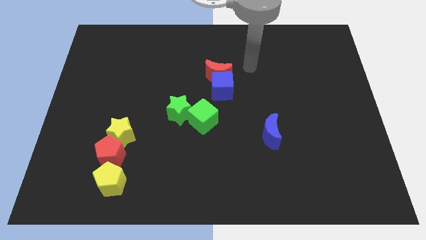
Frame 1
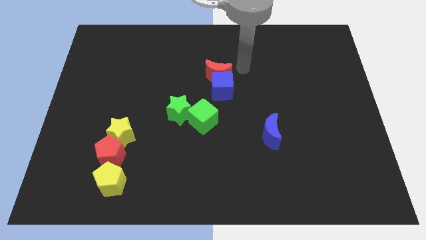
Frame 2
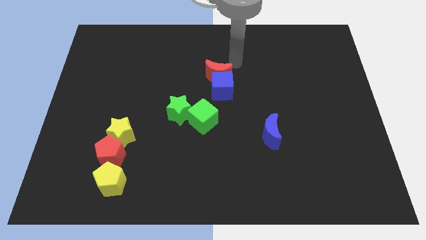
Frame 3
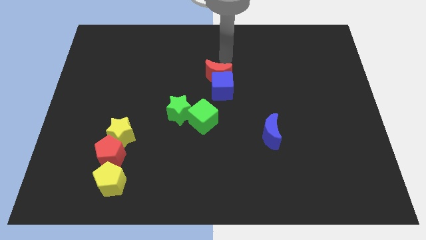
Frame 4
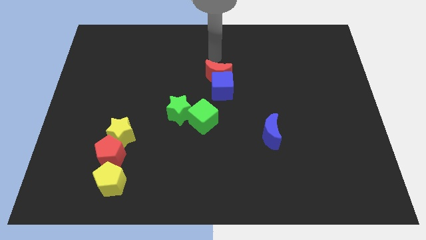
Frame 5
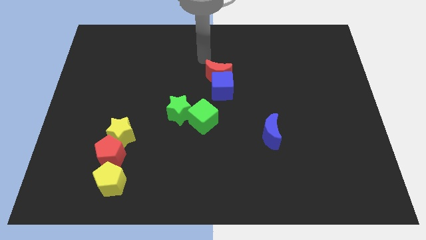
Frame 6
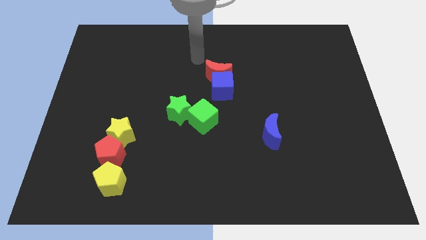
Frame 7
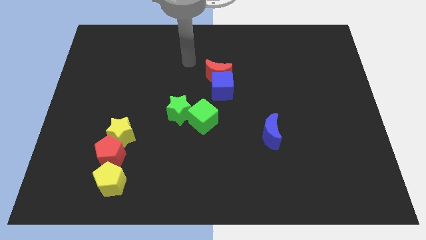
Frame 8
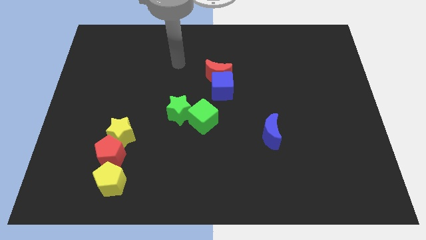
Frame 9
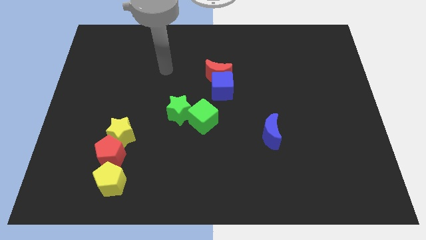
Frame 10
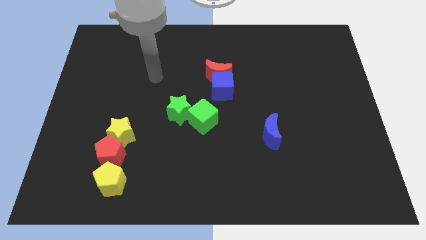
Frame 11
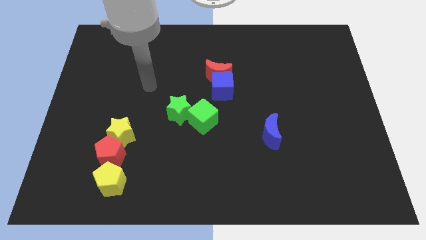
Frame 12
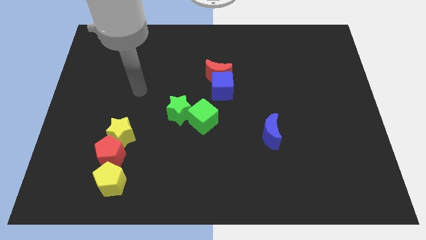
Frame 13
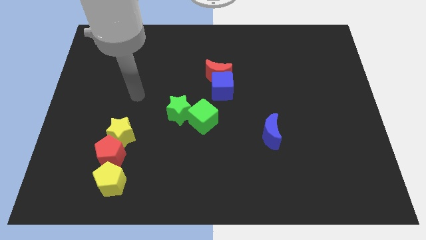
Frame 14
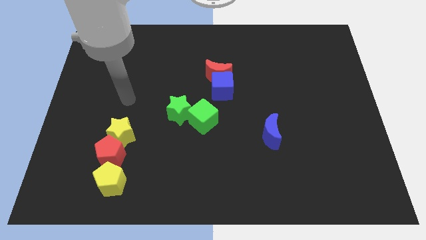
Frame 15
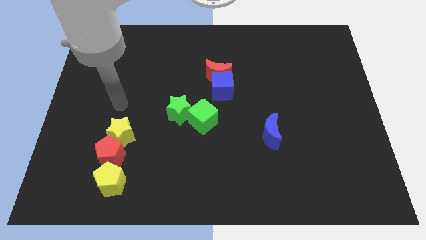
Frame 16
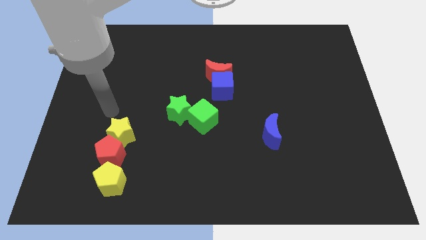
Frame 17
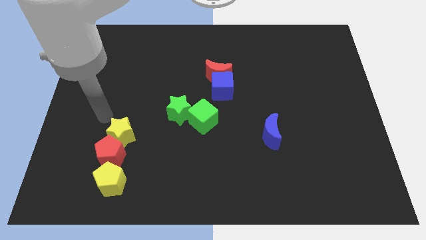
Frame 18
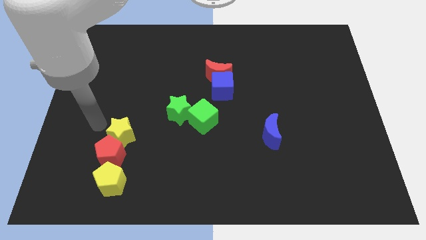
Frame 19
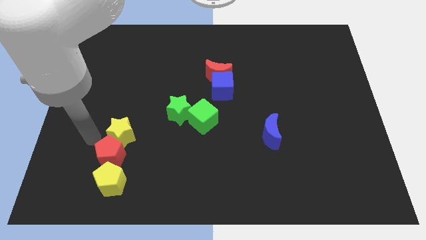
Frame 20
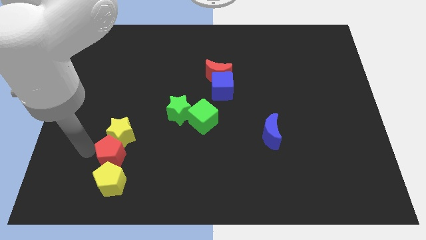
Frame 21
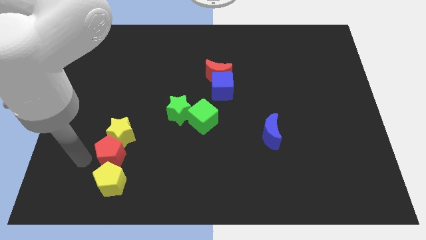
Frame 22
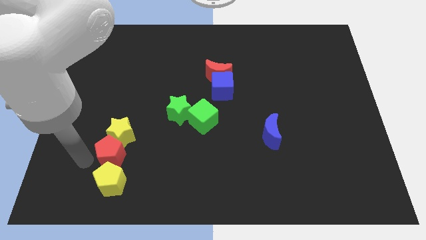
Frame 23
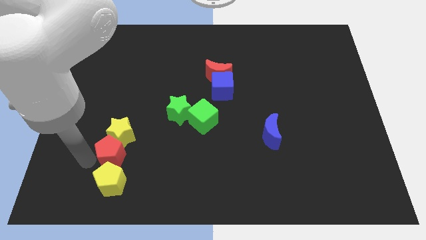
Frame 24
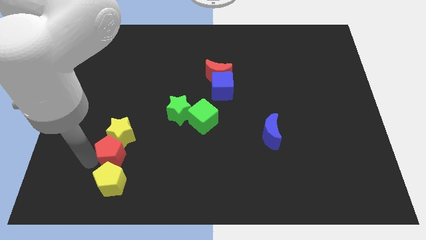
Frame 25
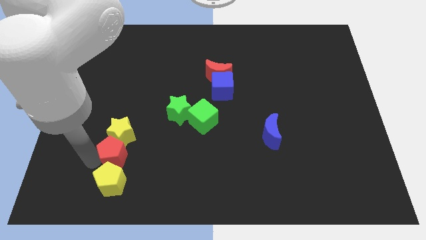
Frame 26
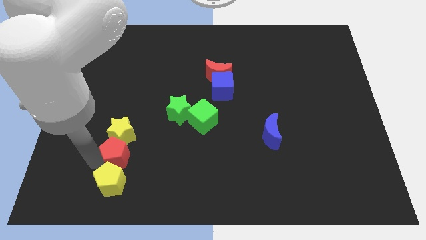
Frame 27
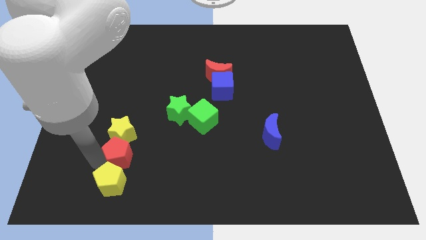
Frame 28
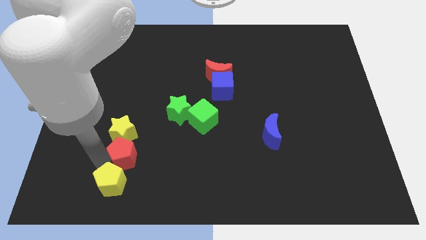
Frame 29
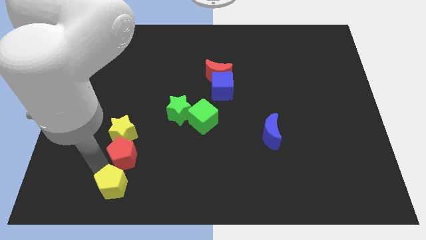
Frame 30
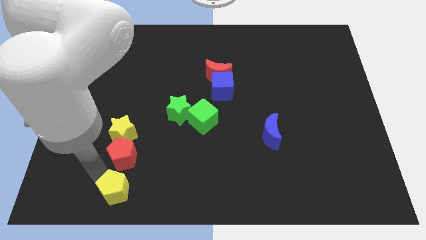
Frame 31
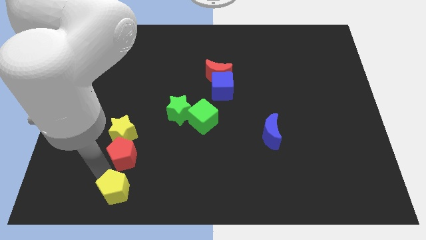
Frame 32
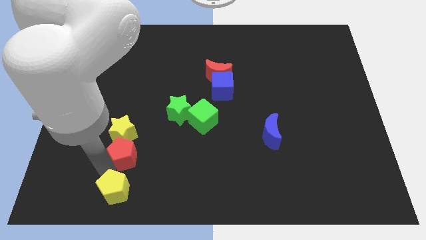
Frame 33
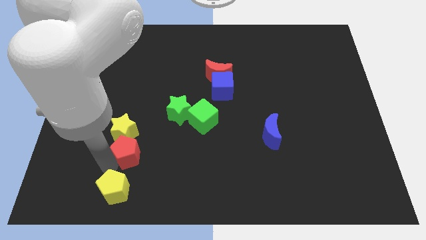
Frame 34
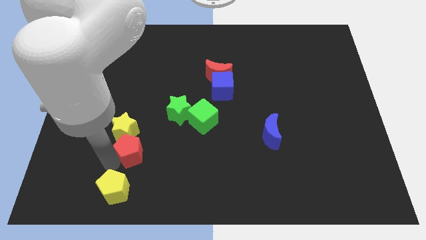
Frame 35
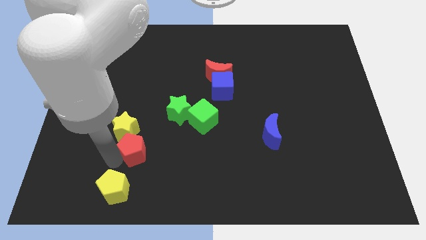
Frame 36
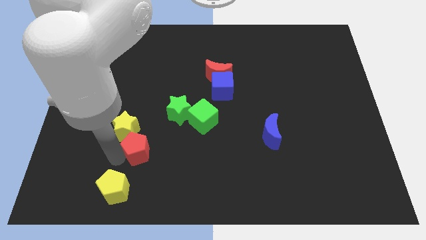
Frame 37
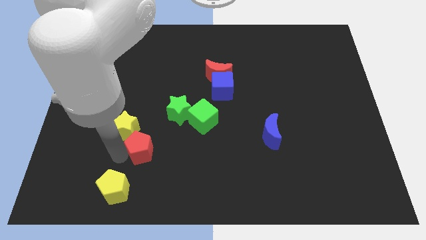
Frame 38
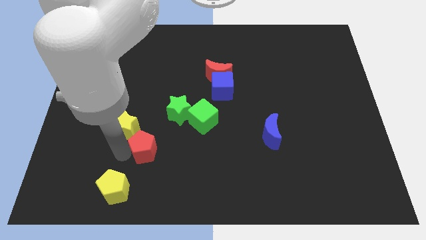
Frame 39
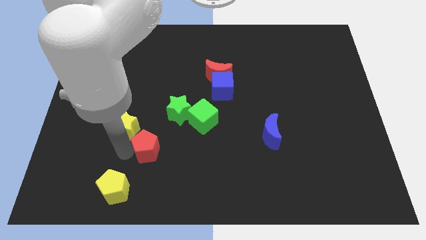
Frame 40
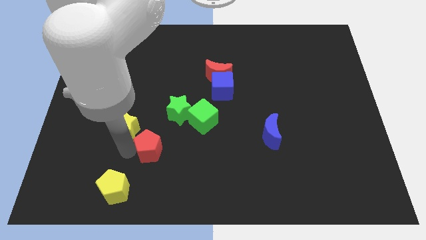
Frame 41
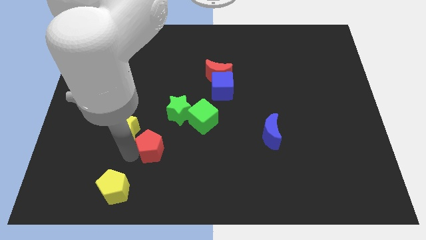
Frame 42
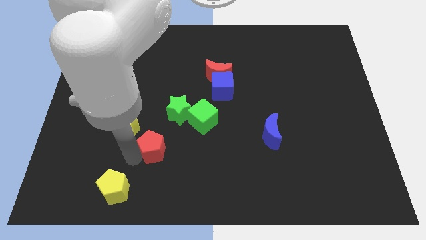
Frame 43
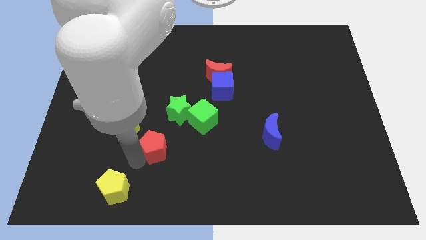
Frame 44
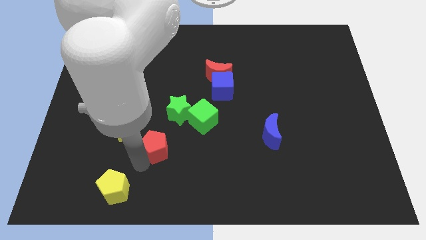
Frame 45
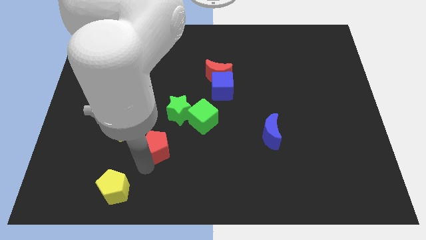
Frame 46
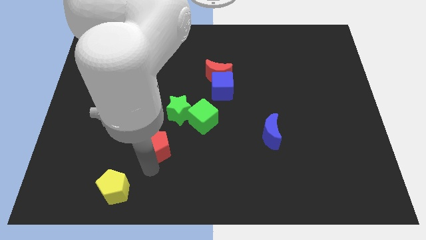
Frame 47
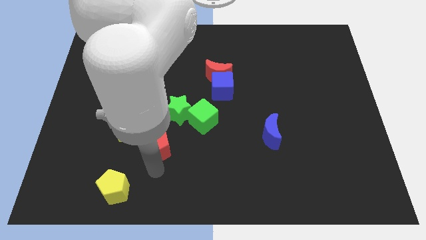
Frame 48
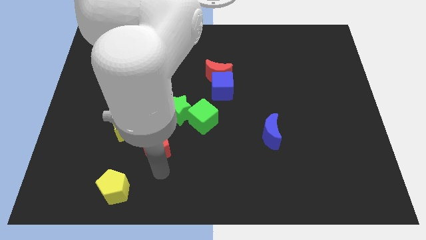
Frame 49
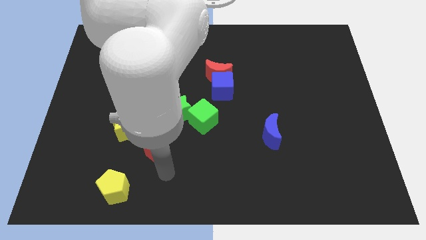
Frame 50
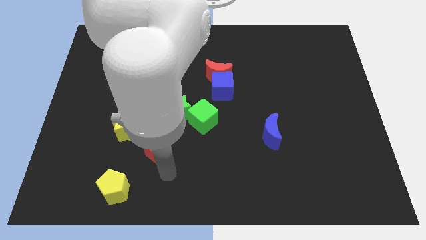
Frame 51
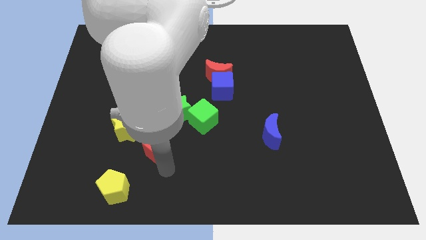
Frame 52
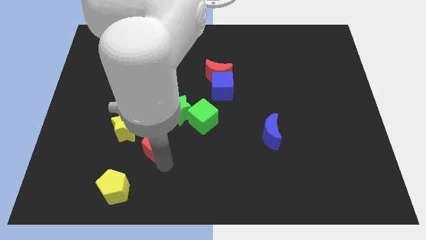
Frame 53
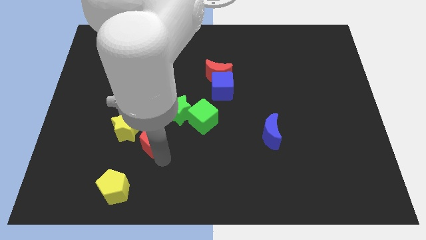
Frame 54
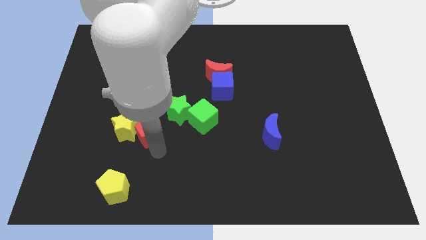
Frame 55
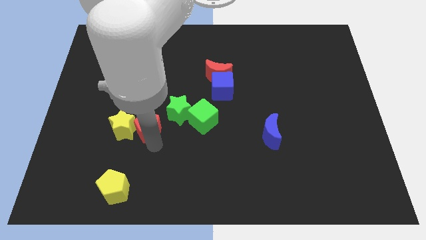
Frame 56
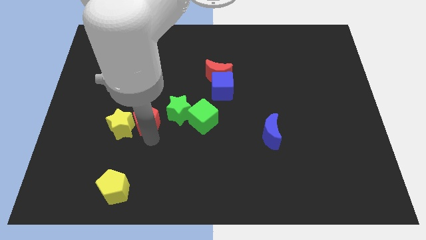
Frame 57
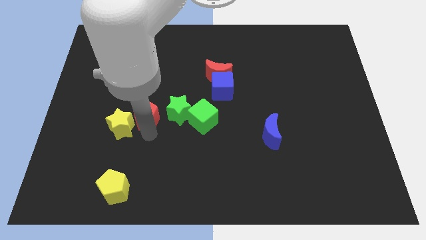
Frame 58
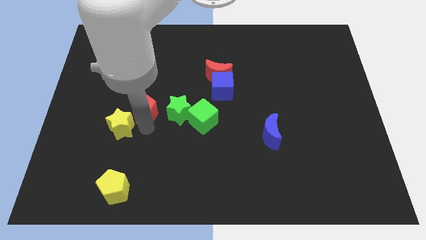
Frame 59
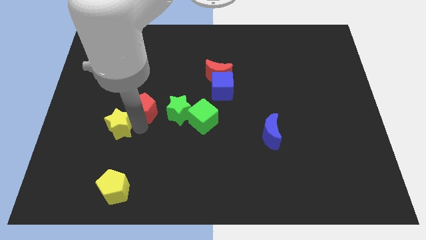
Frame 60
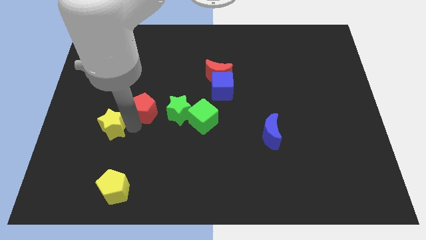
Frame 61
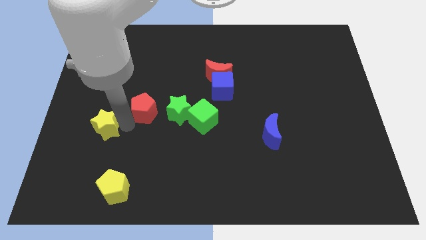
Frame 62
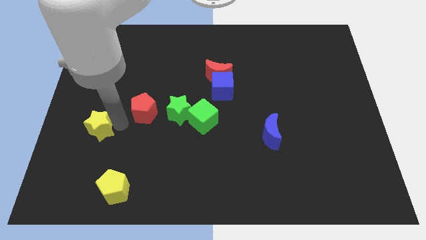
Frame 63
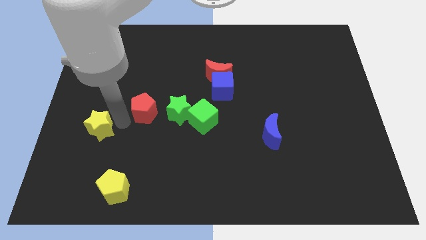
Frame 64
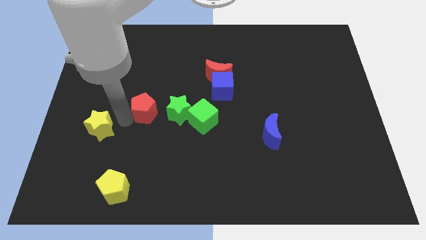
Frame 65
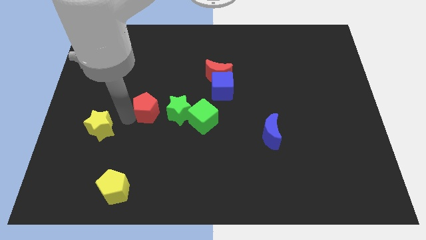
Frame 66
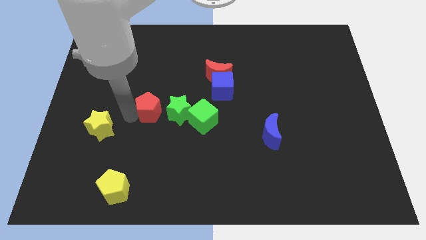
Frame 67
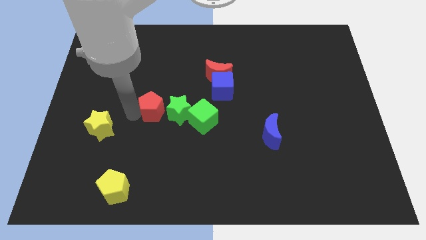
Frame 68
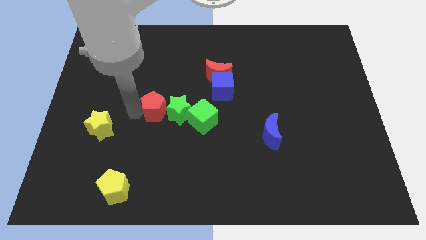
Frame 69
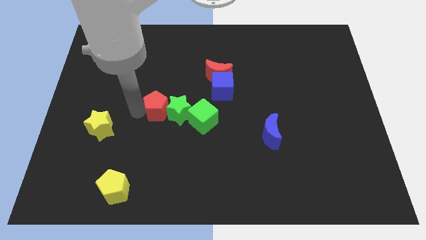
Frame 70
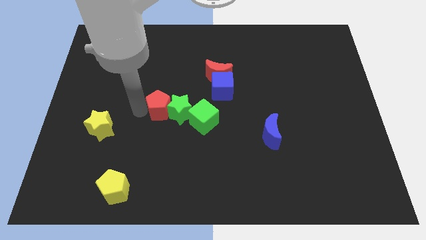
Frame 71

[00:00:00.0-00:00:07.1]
move the red pentagon to the center
